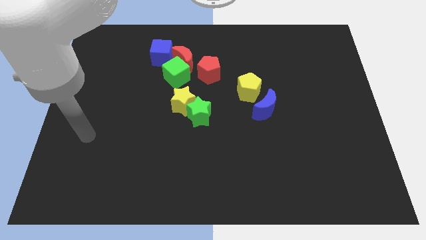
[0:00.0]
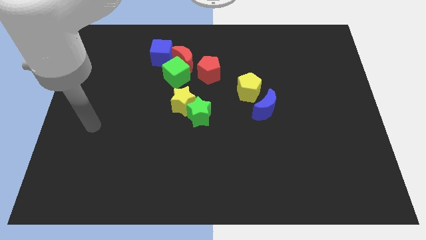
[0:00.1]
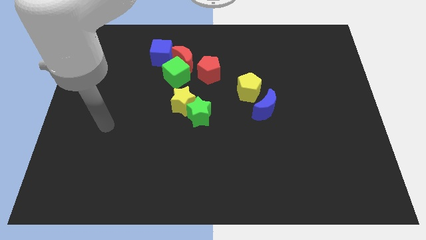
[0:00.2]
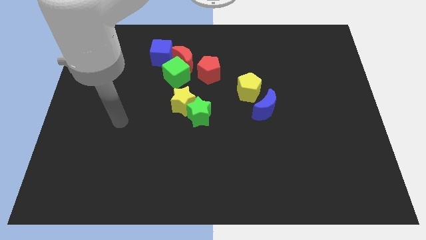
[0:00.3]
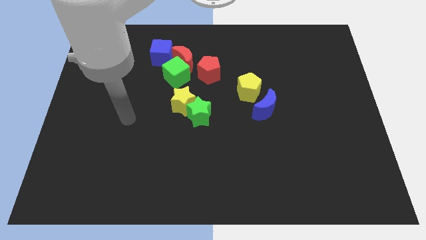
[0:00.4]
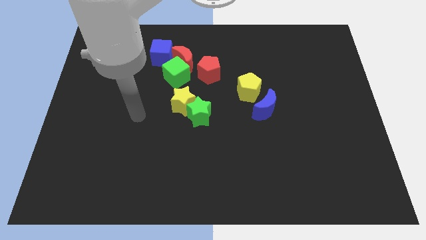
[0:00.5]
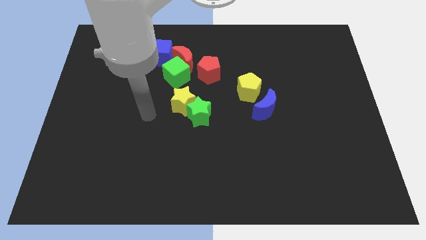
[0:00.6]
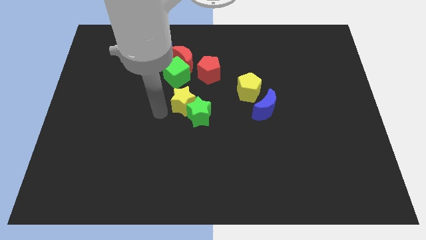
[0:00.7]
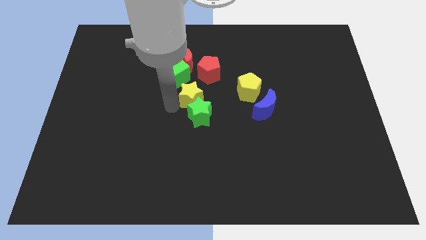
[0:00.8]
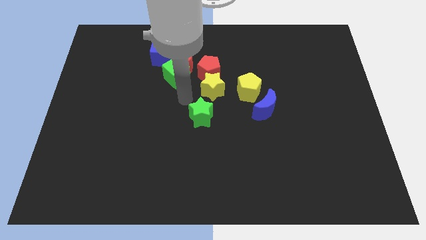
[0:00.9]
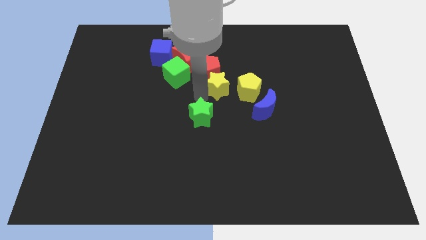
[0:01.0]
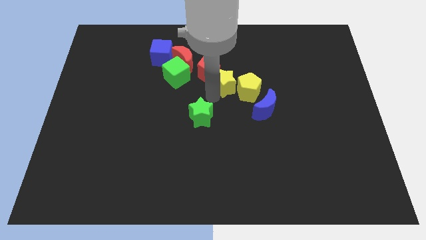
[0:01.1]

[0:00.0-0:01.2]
pull the green star apart from the yellow star

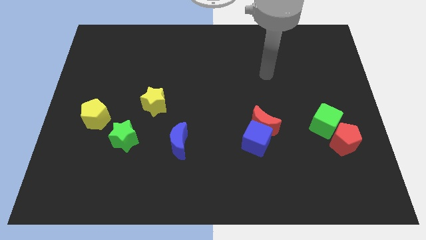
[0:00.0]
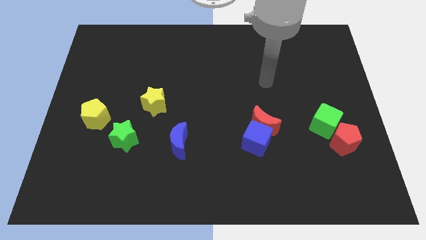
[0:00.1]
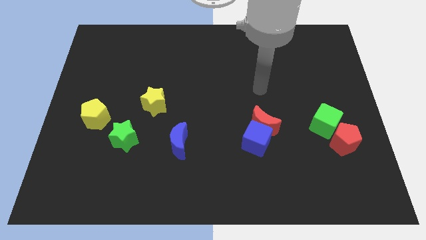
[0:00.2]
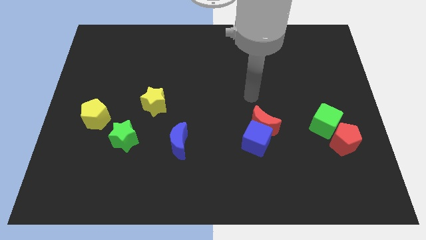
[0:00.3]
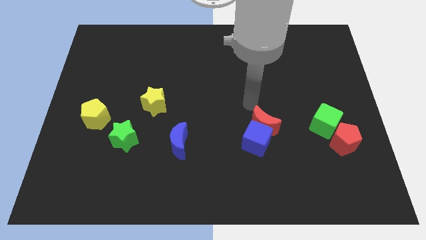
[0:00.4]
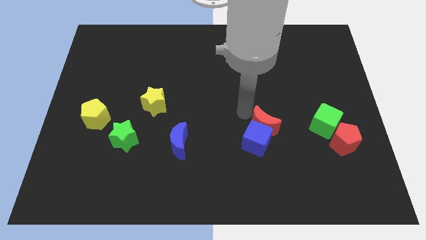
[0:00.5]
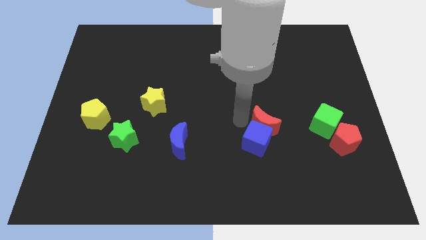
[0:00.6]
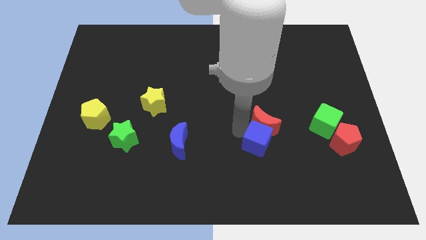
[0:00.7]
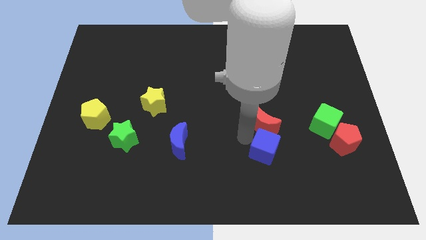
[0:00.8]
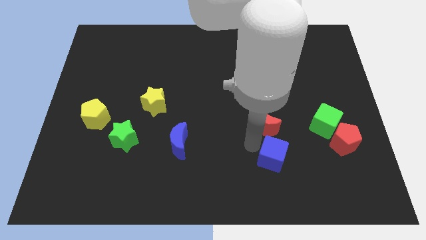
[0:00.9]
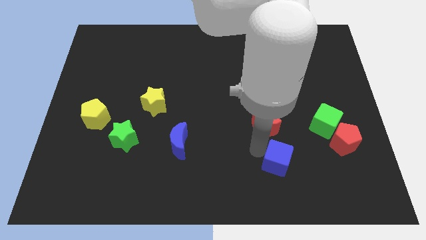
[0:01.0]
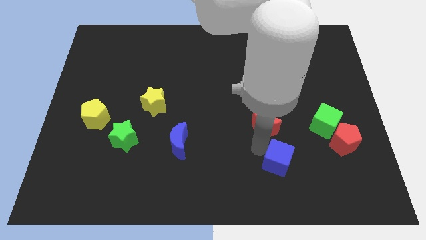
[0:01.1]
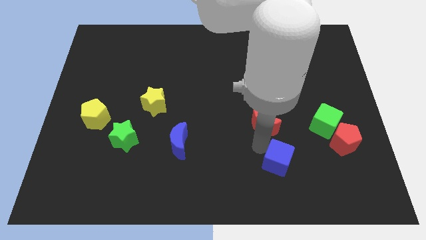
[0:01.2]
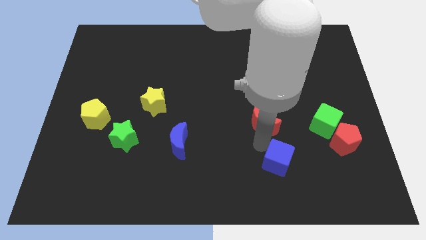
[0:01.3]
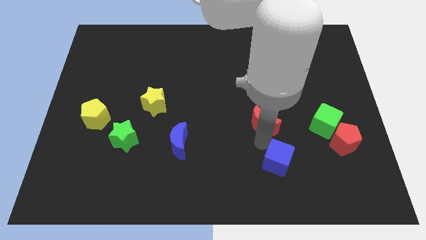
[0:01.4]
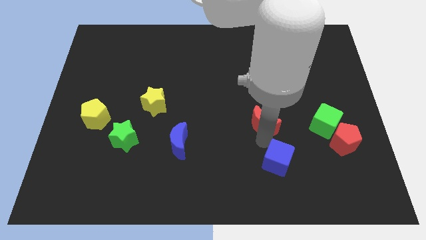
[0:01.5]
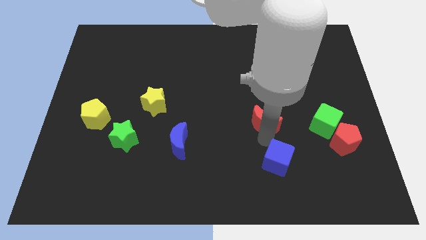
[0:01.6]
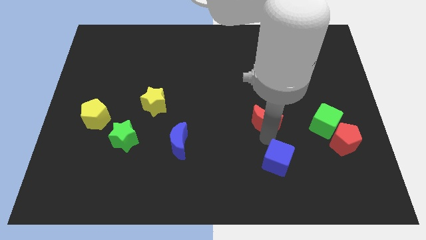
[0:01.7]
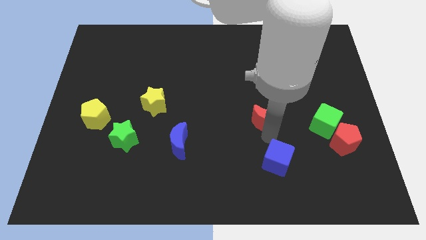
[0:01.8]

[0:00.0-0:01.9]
pull the red moon apart from the blue cube

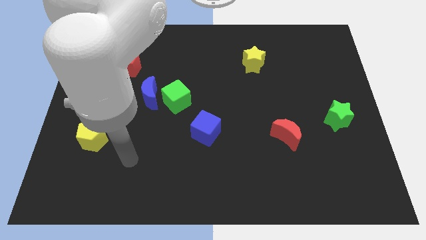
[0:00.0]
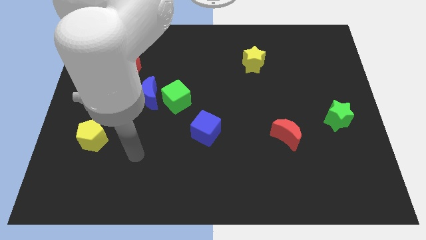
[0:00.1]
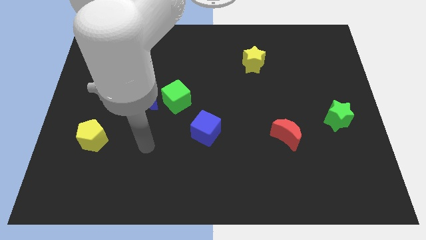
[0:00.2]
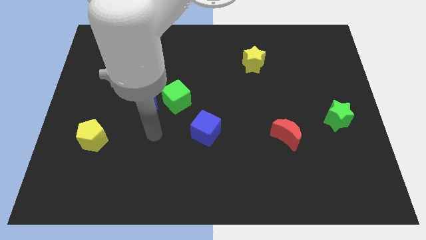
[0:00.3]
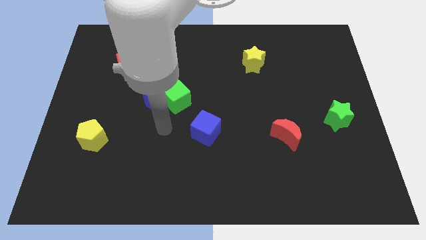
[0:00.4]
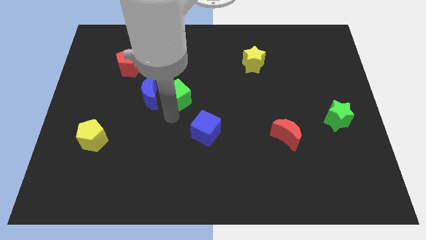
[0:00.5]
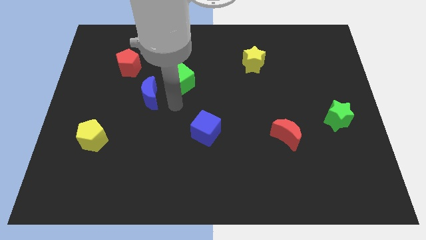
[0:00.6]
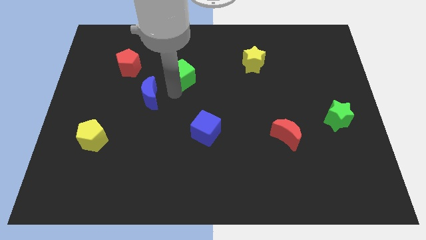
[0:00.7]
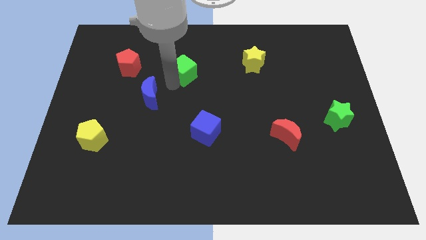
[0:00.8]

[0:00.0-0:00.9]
move the blue moon away from the green cube

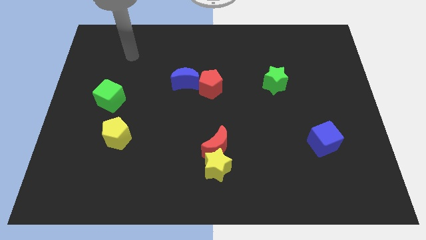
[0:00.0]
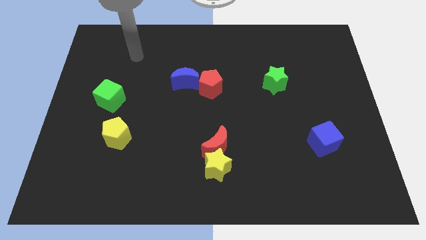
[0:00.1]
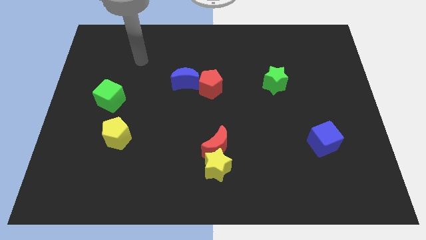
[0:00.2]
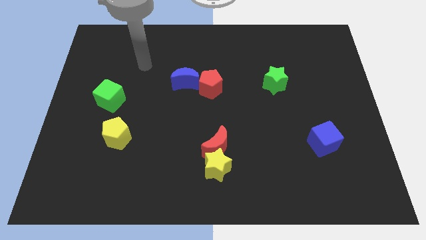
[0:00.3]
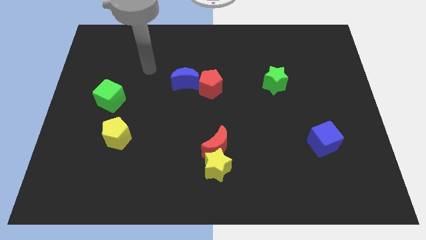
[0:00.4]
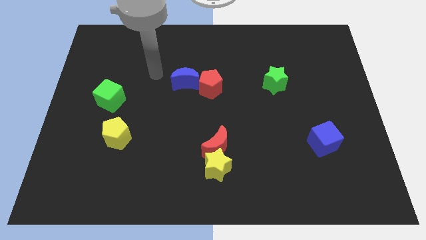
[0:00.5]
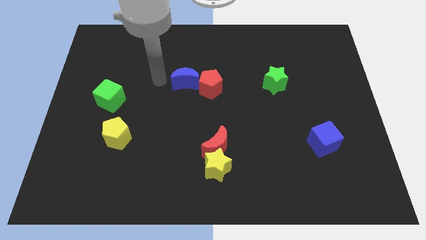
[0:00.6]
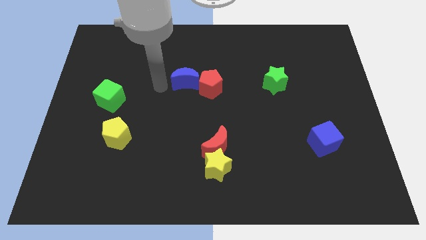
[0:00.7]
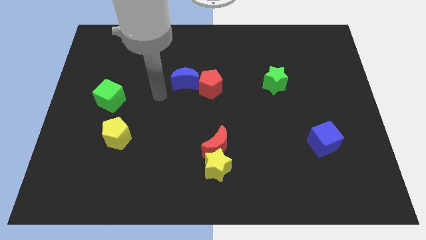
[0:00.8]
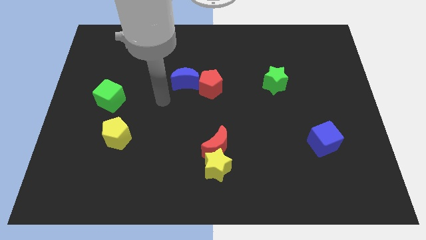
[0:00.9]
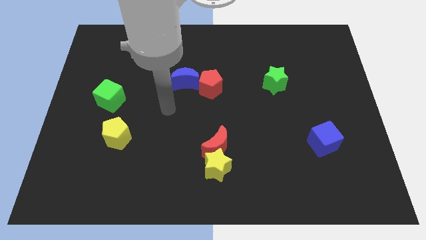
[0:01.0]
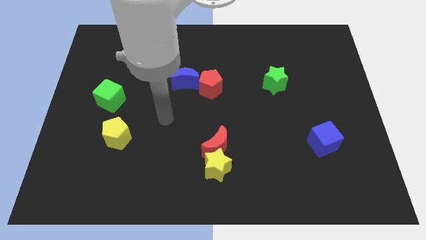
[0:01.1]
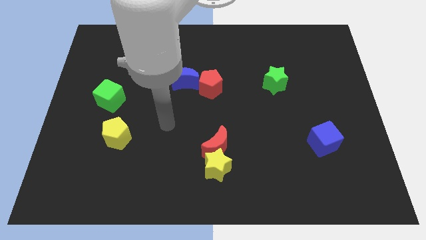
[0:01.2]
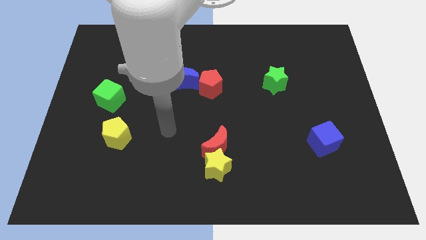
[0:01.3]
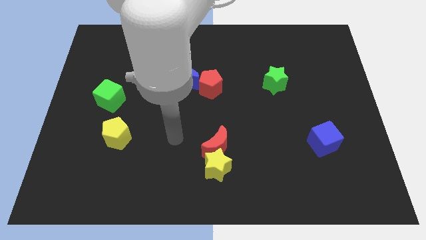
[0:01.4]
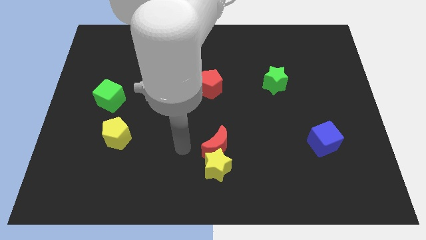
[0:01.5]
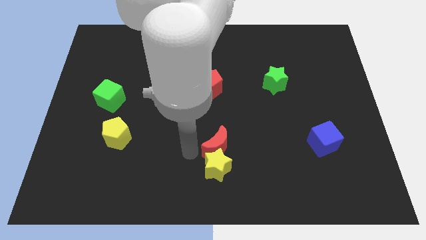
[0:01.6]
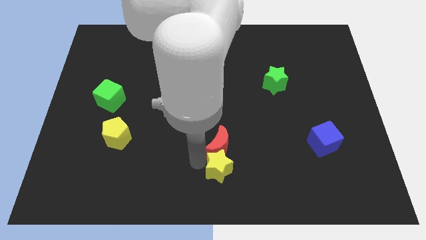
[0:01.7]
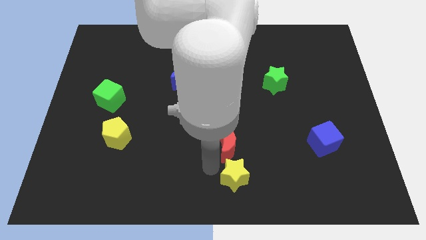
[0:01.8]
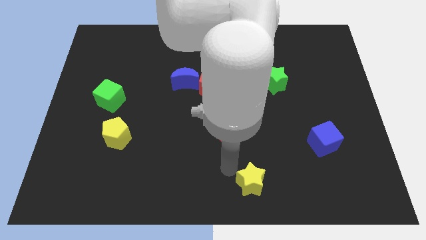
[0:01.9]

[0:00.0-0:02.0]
move the red moon away from the yellow star

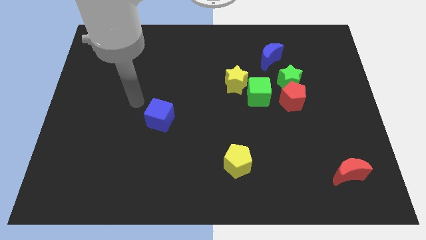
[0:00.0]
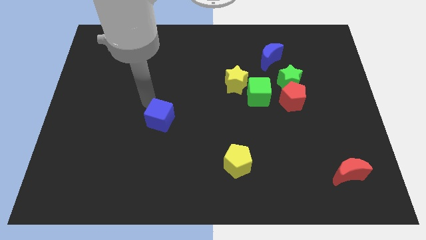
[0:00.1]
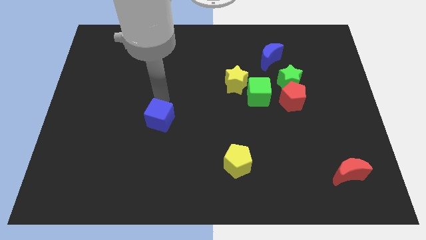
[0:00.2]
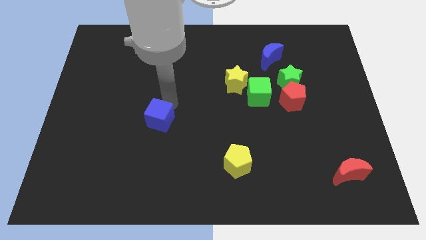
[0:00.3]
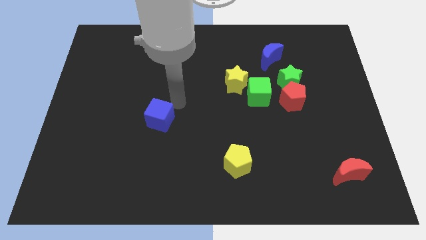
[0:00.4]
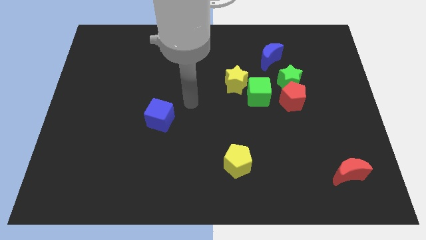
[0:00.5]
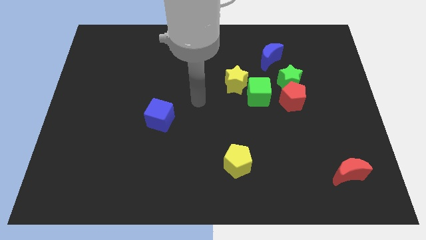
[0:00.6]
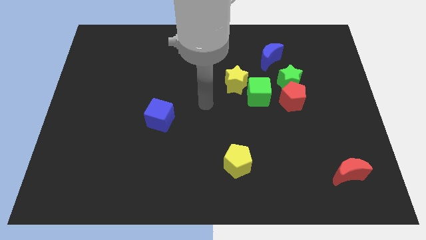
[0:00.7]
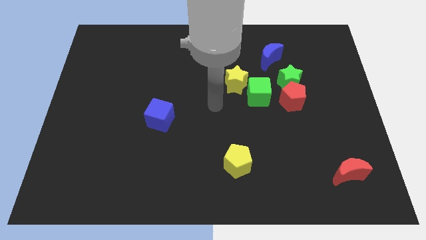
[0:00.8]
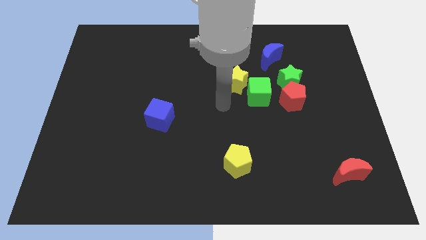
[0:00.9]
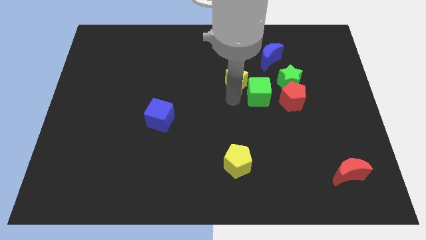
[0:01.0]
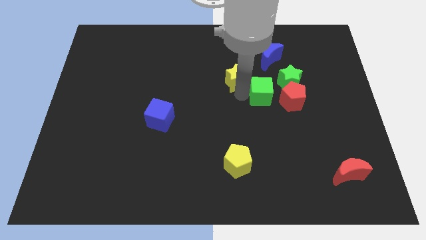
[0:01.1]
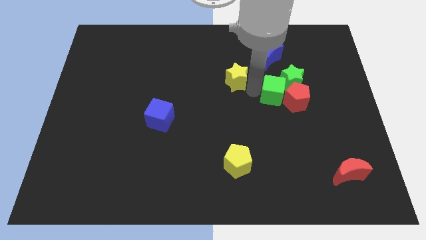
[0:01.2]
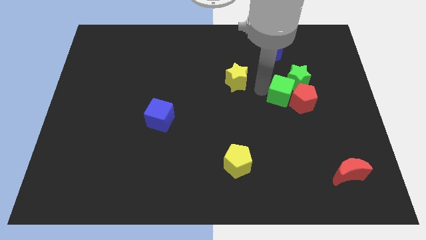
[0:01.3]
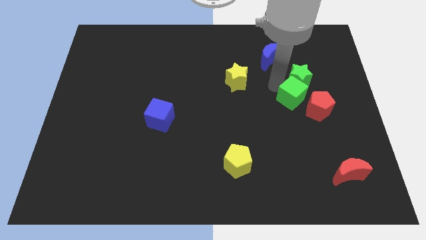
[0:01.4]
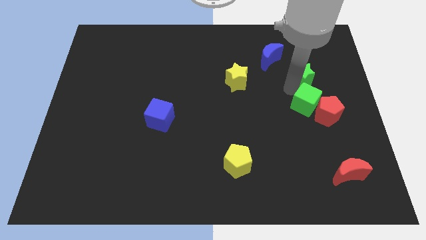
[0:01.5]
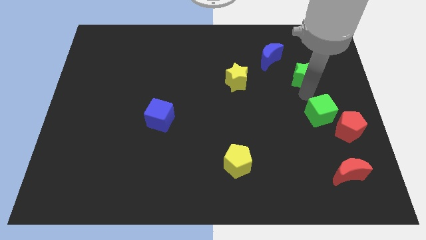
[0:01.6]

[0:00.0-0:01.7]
move the red pentagon away from the green star and green cube

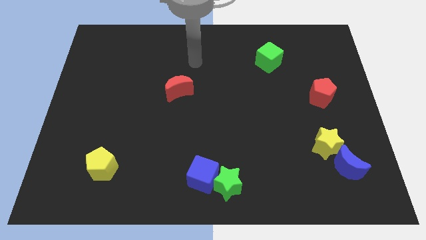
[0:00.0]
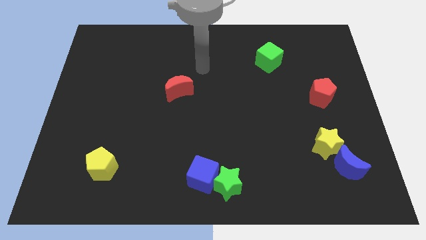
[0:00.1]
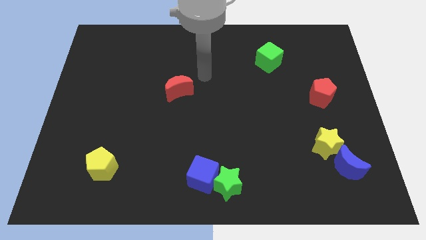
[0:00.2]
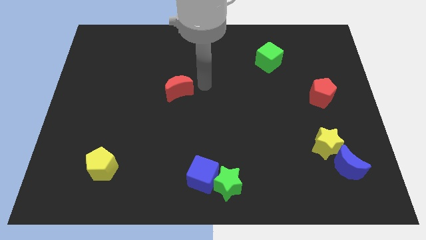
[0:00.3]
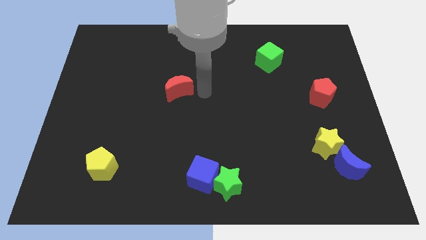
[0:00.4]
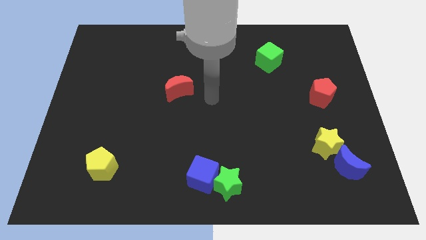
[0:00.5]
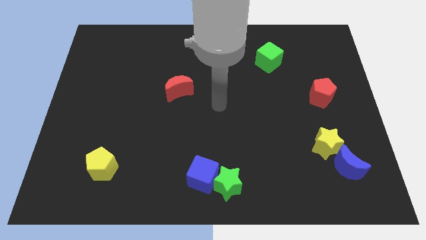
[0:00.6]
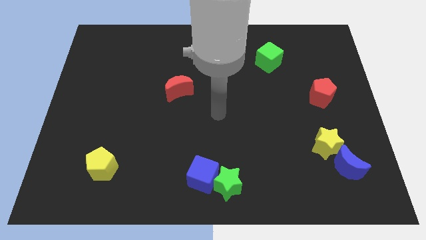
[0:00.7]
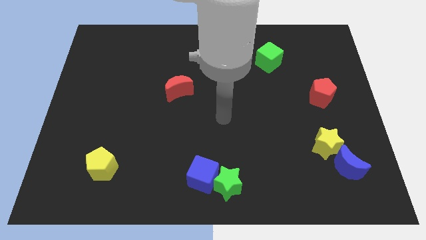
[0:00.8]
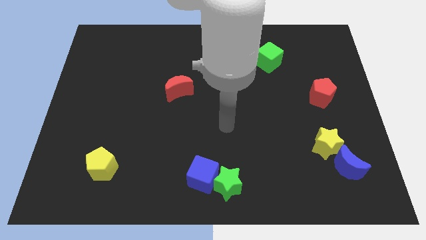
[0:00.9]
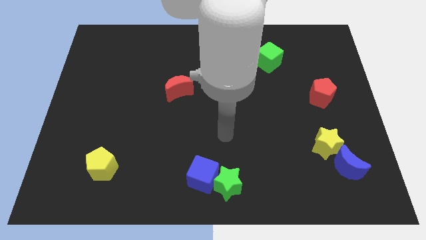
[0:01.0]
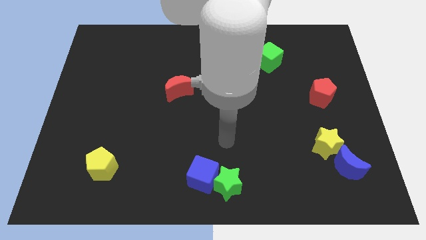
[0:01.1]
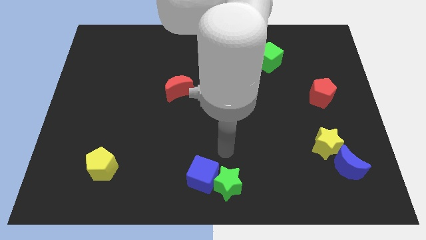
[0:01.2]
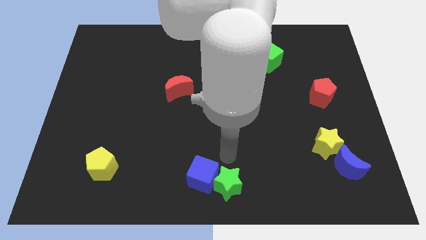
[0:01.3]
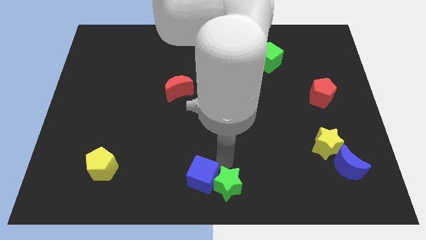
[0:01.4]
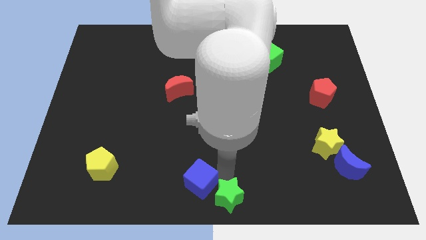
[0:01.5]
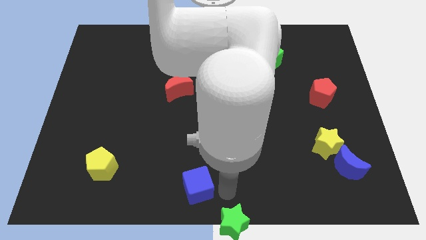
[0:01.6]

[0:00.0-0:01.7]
move the blue cube away from the green star
